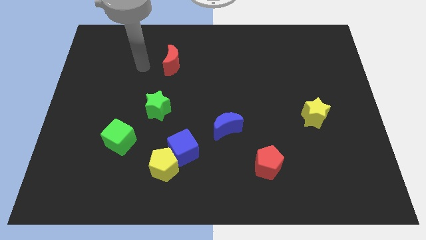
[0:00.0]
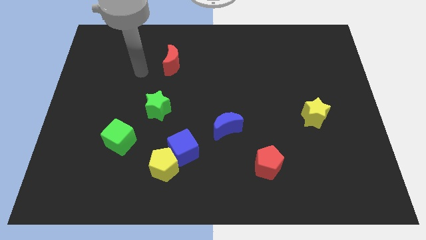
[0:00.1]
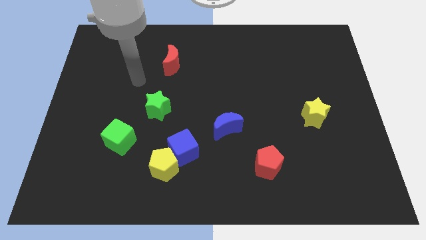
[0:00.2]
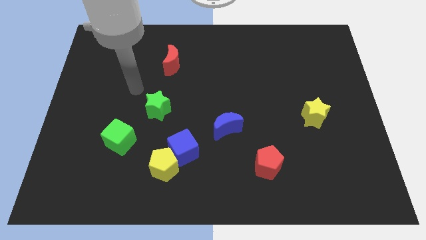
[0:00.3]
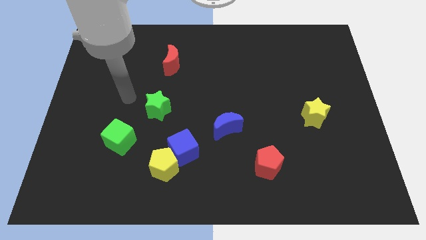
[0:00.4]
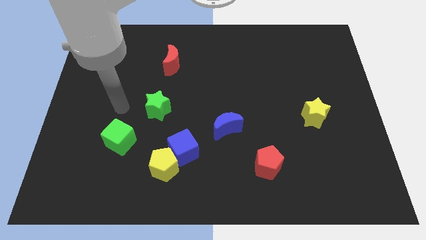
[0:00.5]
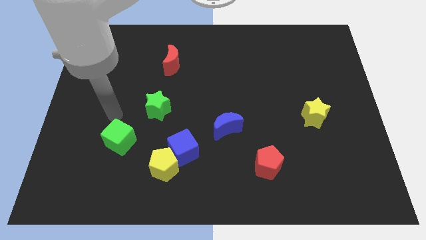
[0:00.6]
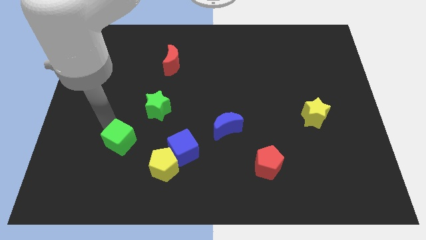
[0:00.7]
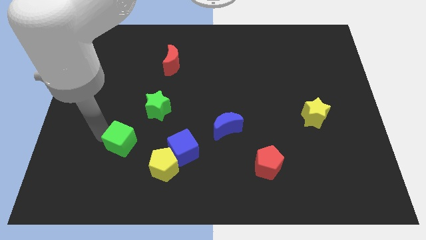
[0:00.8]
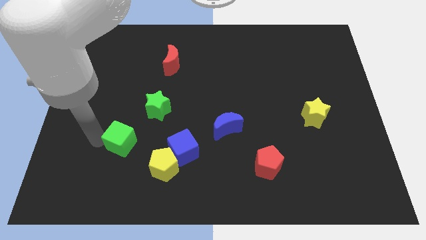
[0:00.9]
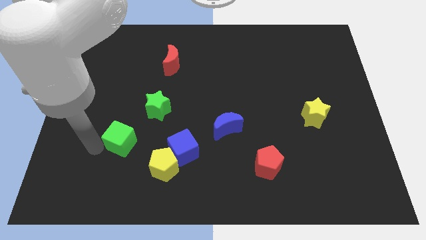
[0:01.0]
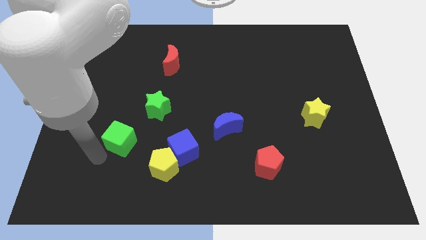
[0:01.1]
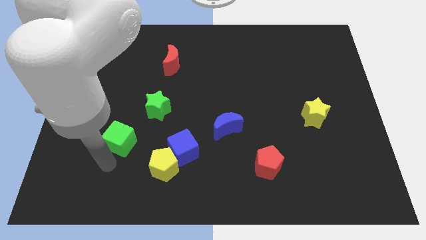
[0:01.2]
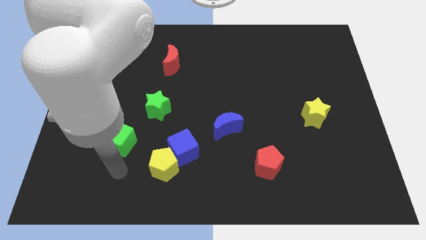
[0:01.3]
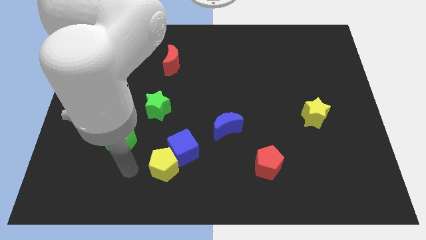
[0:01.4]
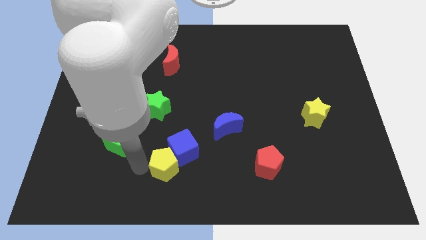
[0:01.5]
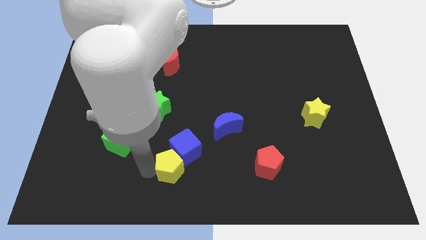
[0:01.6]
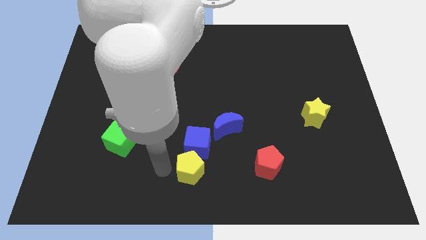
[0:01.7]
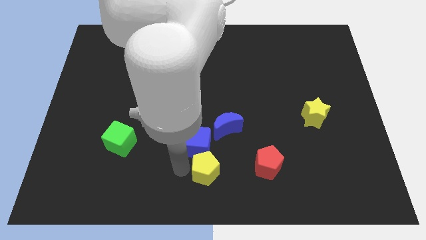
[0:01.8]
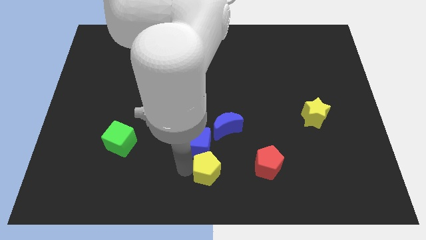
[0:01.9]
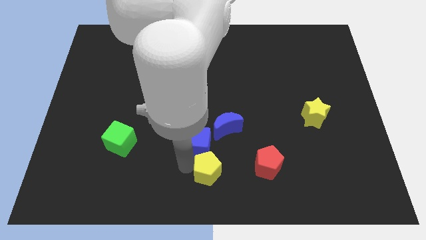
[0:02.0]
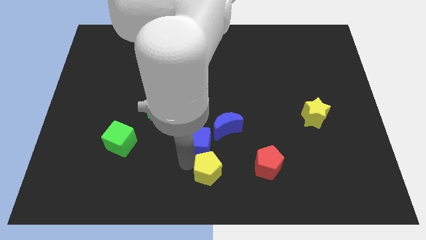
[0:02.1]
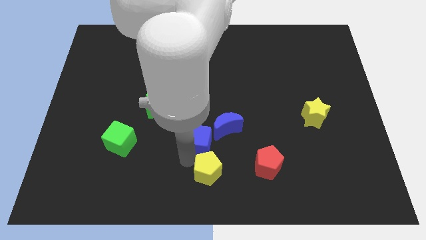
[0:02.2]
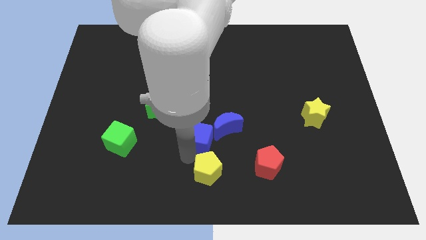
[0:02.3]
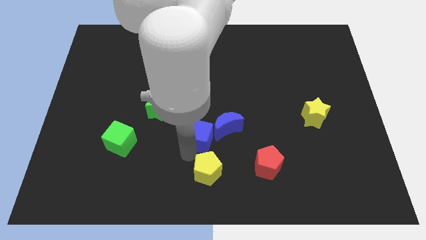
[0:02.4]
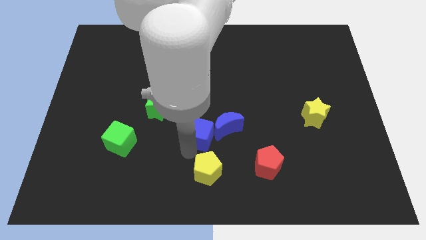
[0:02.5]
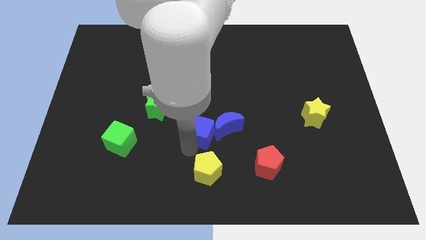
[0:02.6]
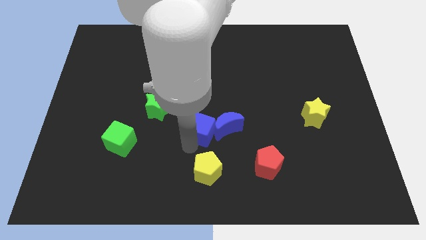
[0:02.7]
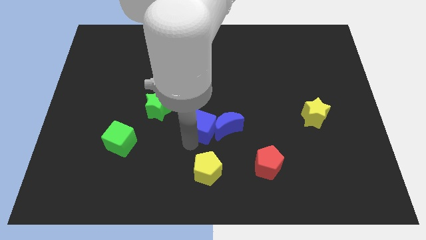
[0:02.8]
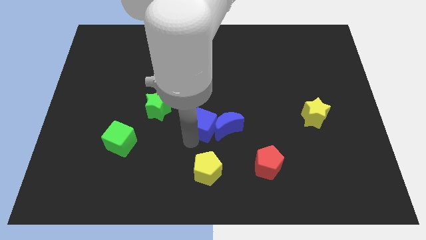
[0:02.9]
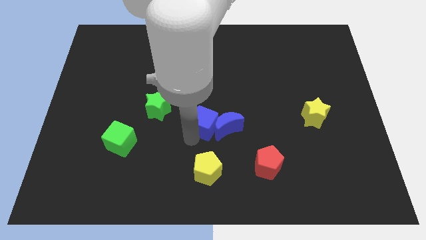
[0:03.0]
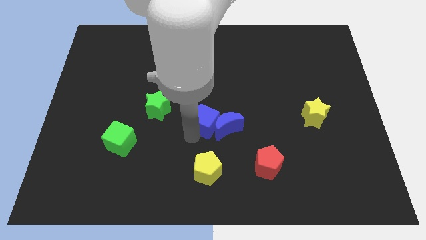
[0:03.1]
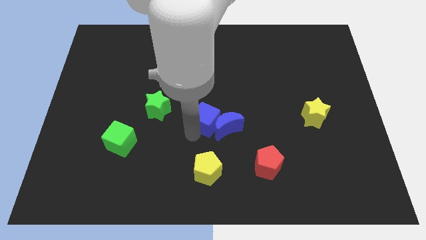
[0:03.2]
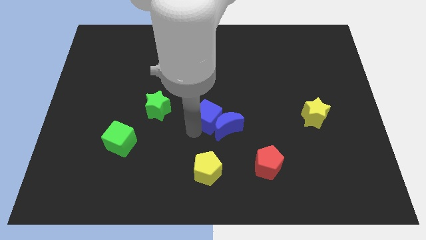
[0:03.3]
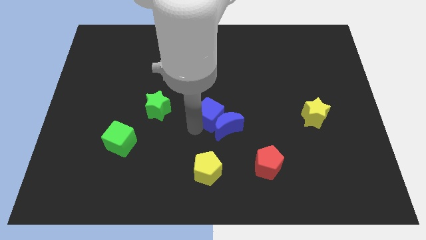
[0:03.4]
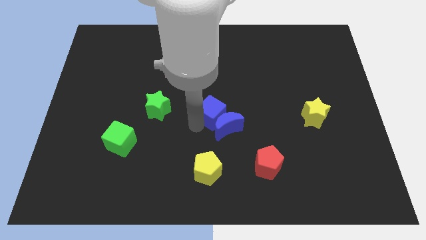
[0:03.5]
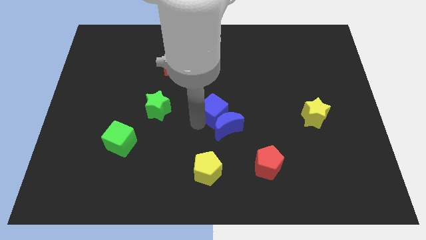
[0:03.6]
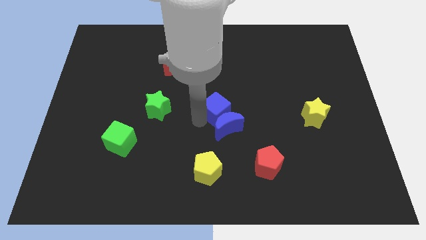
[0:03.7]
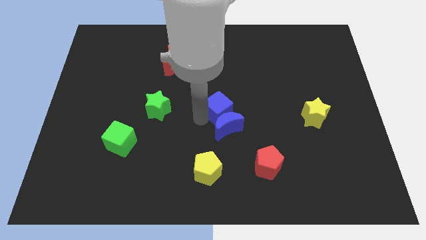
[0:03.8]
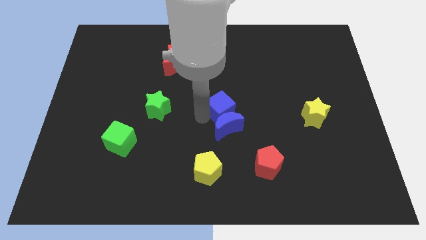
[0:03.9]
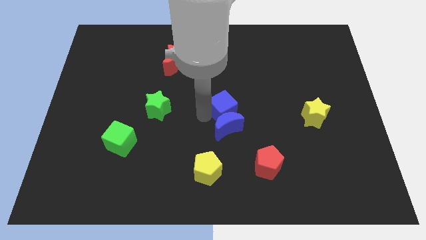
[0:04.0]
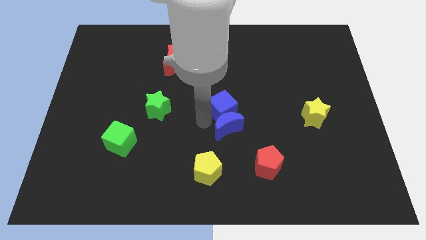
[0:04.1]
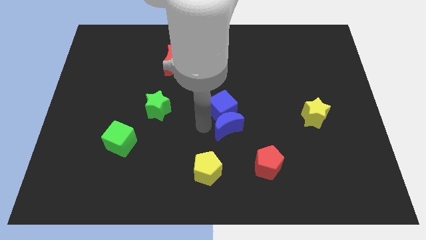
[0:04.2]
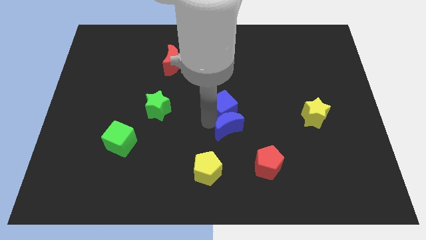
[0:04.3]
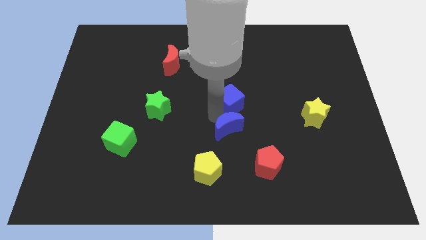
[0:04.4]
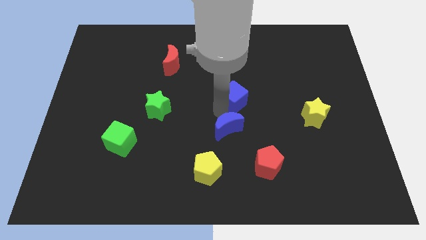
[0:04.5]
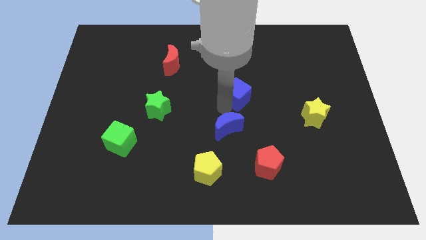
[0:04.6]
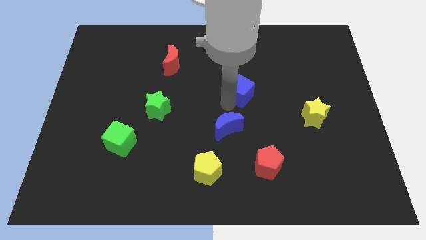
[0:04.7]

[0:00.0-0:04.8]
slide the blue cube up and right diagonally

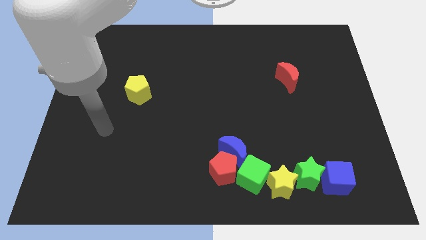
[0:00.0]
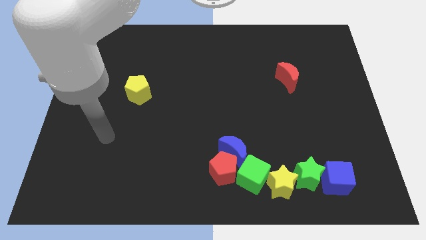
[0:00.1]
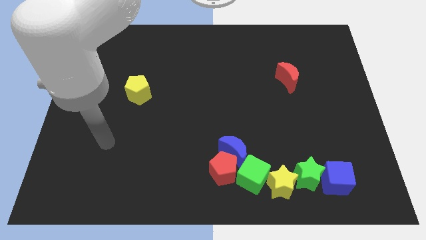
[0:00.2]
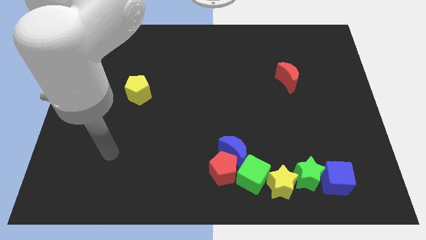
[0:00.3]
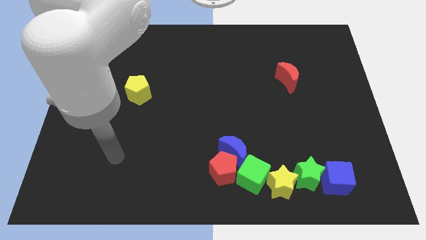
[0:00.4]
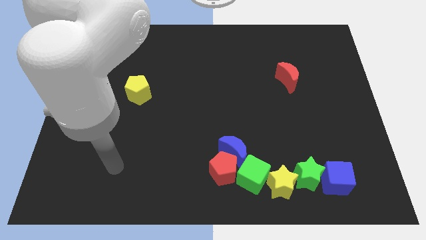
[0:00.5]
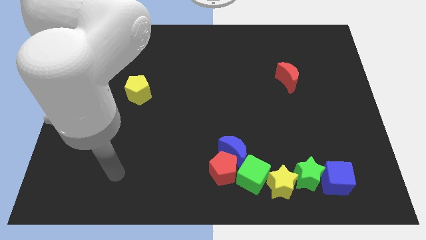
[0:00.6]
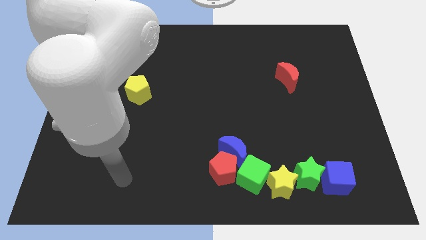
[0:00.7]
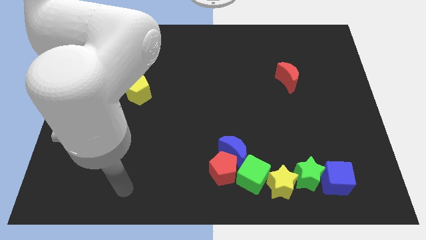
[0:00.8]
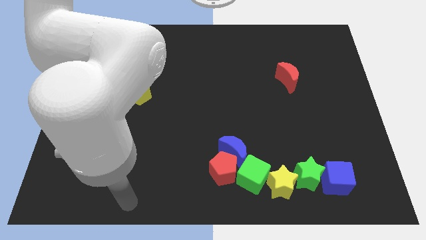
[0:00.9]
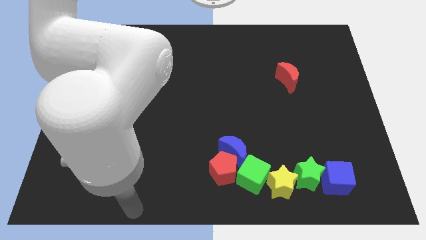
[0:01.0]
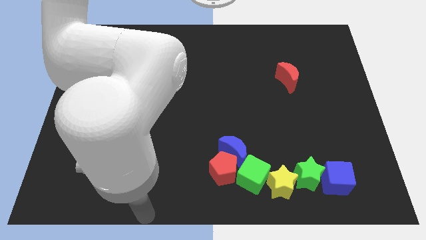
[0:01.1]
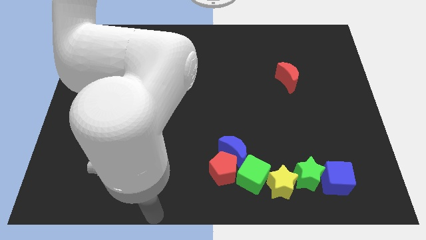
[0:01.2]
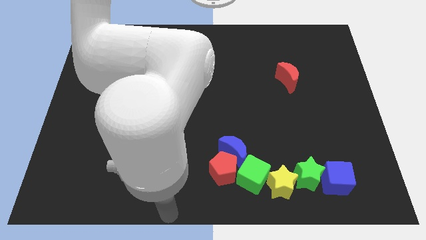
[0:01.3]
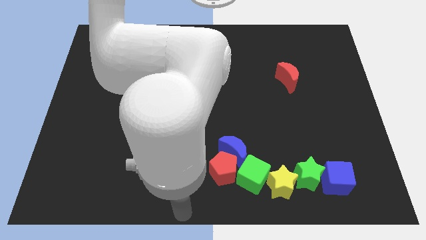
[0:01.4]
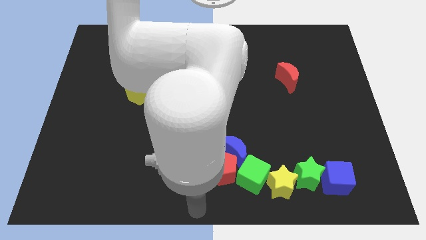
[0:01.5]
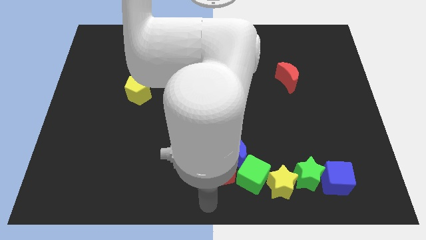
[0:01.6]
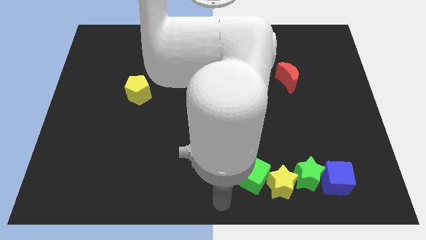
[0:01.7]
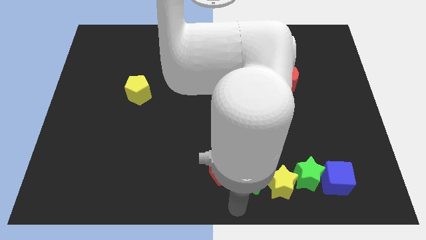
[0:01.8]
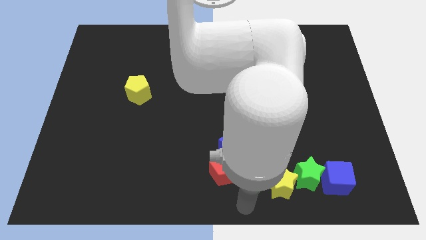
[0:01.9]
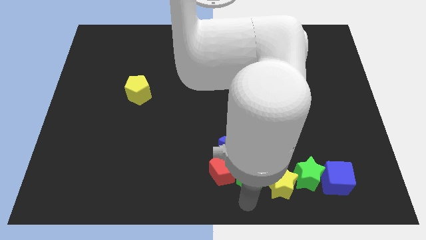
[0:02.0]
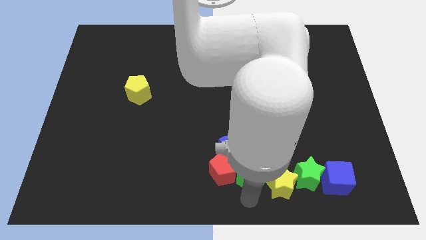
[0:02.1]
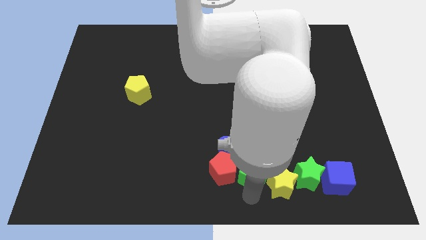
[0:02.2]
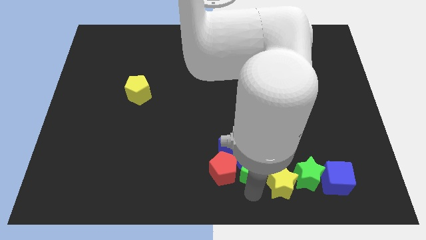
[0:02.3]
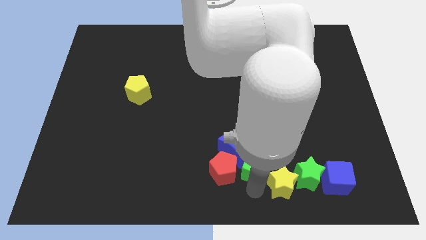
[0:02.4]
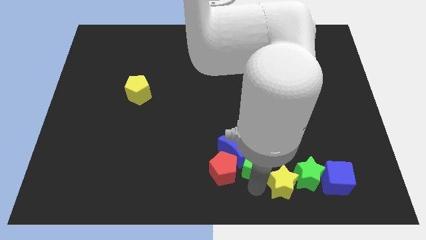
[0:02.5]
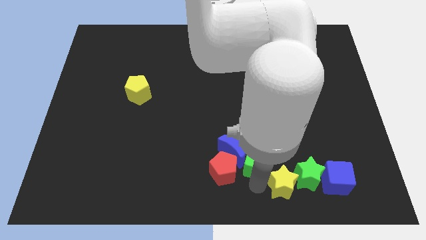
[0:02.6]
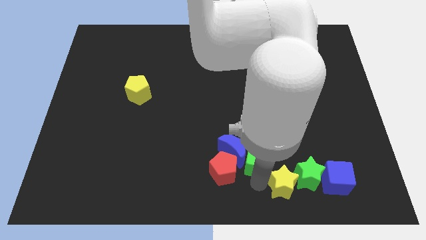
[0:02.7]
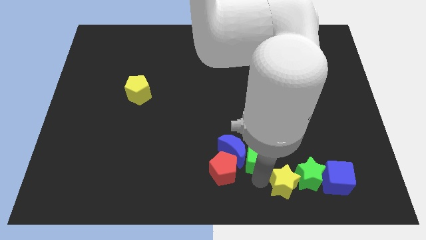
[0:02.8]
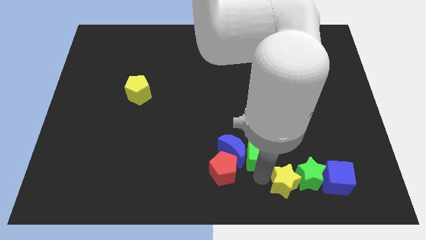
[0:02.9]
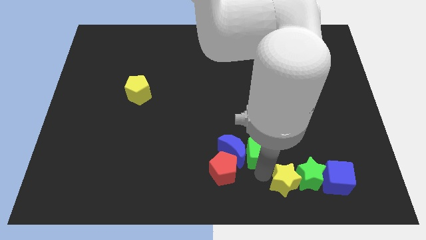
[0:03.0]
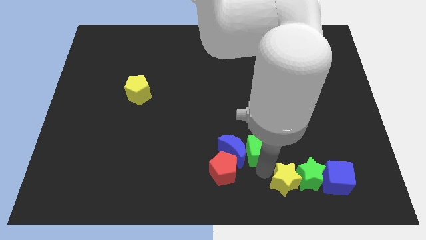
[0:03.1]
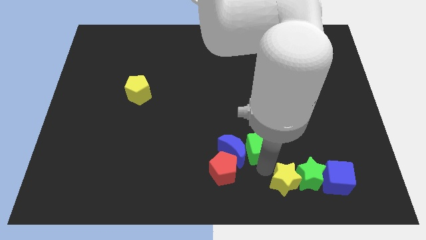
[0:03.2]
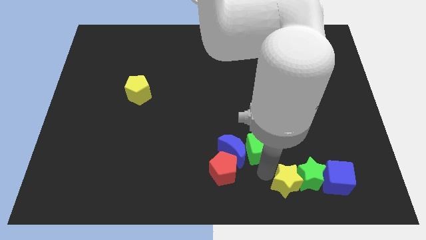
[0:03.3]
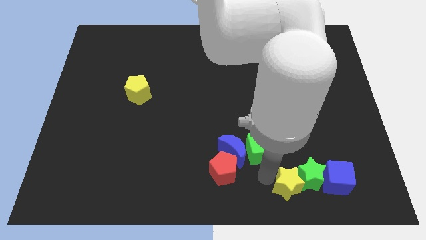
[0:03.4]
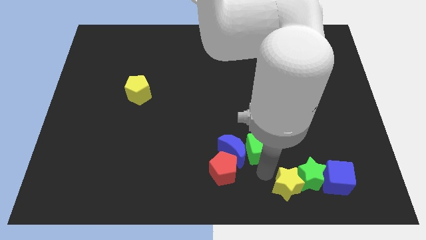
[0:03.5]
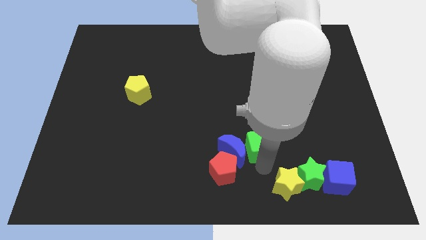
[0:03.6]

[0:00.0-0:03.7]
slide the green cube up a little
